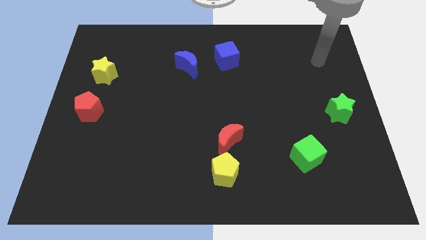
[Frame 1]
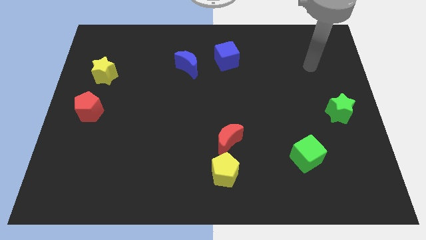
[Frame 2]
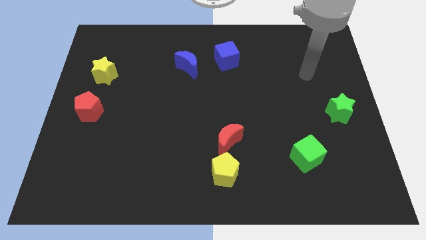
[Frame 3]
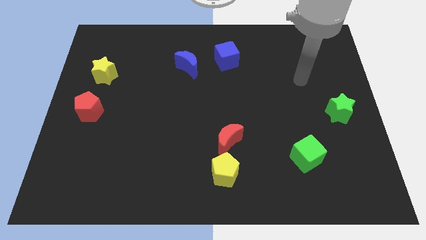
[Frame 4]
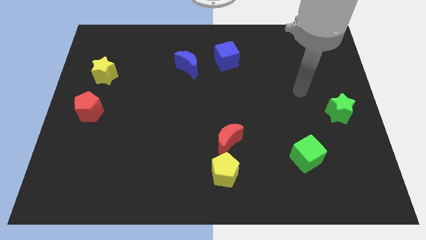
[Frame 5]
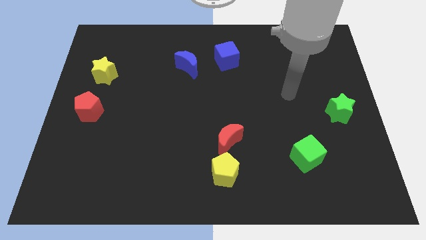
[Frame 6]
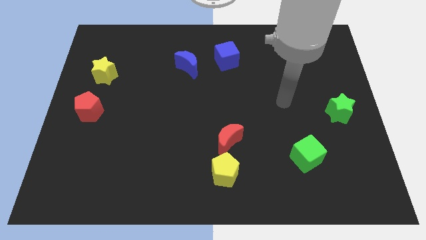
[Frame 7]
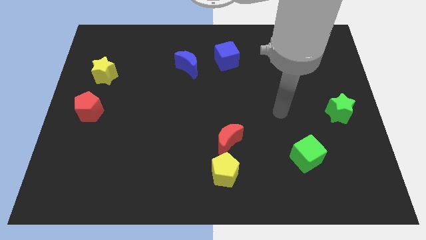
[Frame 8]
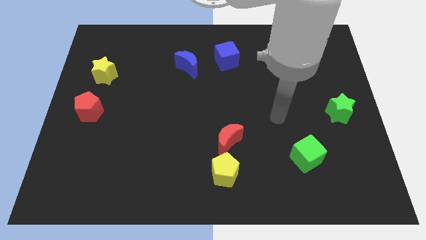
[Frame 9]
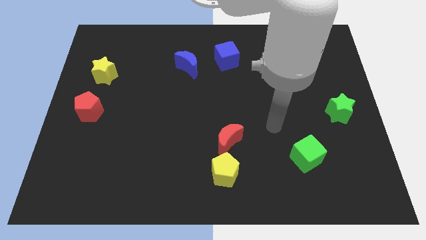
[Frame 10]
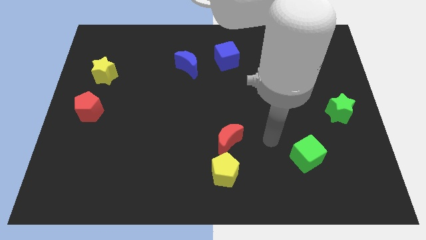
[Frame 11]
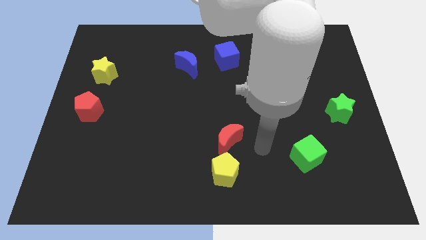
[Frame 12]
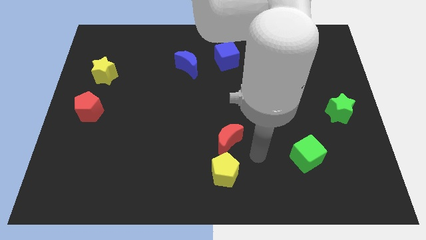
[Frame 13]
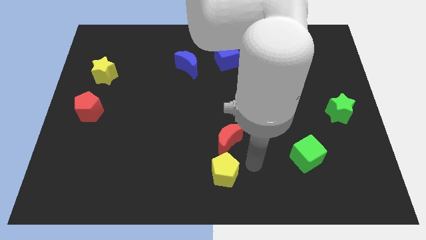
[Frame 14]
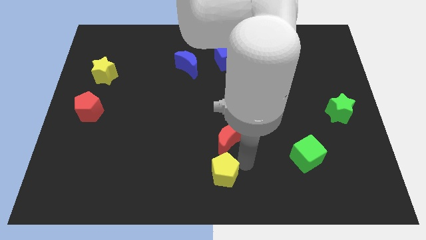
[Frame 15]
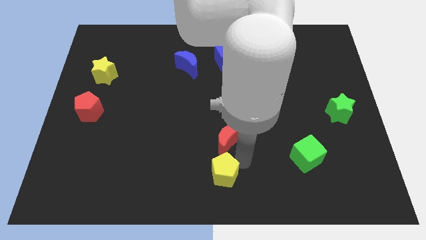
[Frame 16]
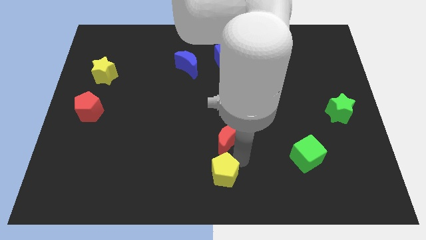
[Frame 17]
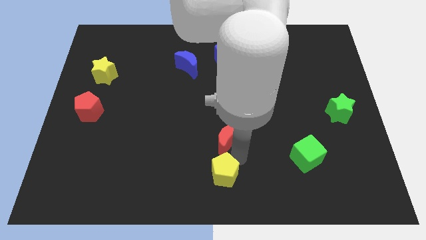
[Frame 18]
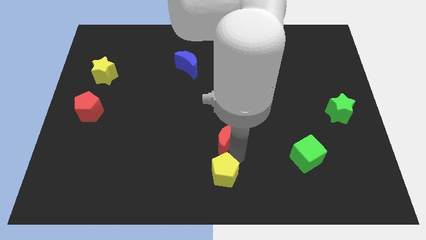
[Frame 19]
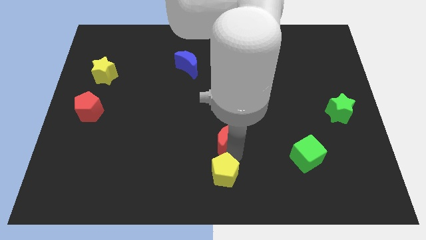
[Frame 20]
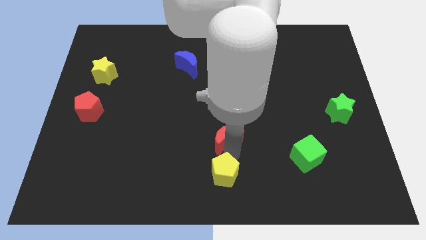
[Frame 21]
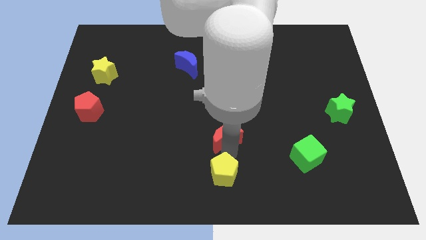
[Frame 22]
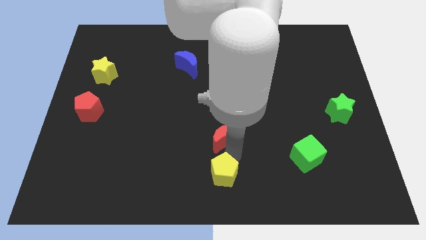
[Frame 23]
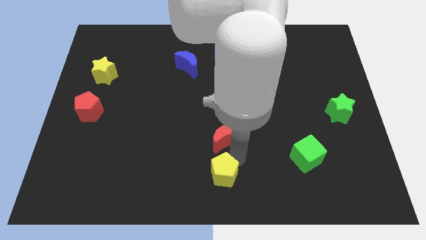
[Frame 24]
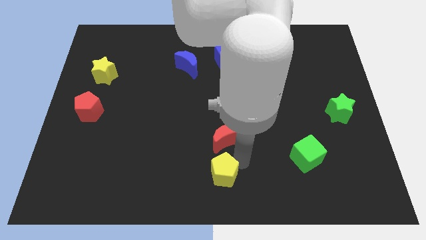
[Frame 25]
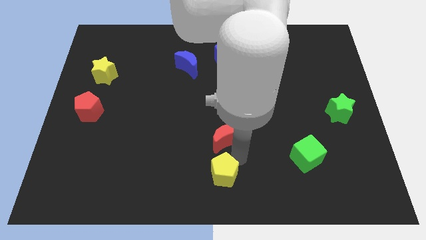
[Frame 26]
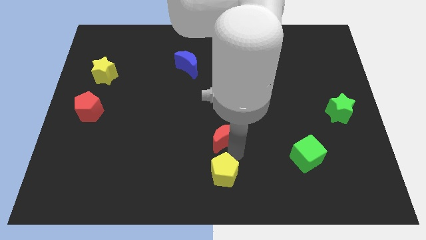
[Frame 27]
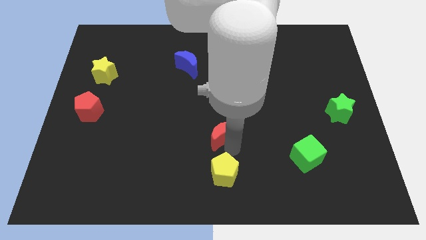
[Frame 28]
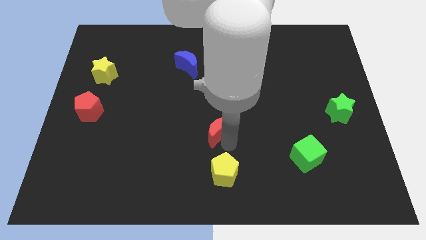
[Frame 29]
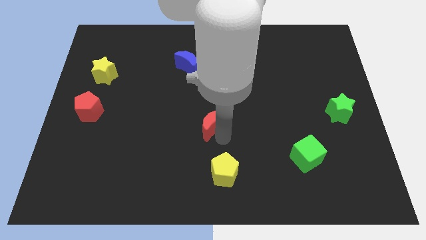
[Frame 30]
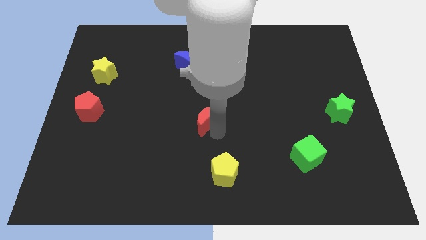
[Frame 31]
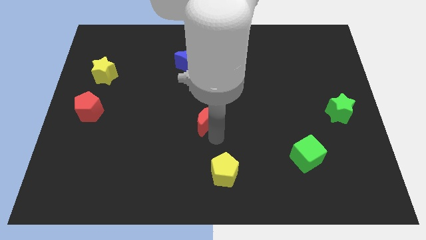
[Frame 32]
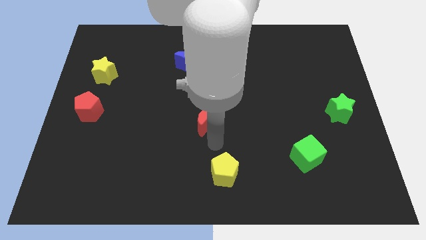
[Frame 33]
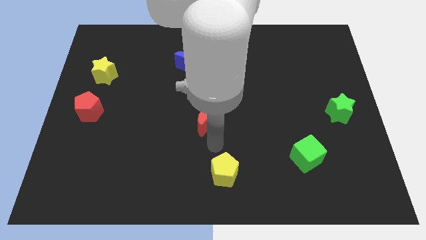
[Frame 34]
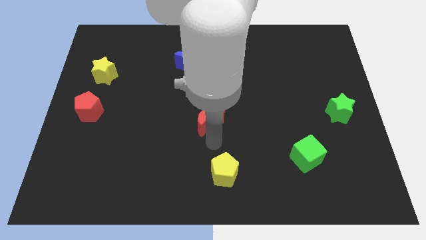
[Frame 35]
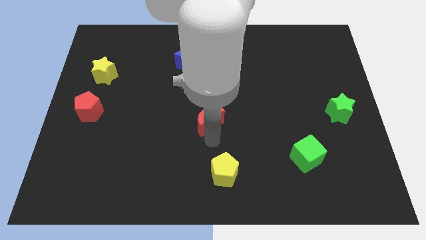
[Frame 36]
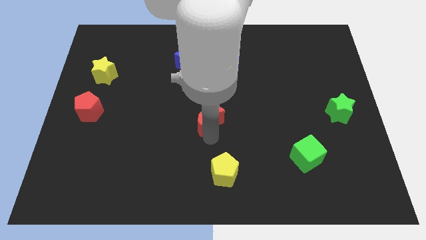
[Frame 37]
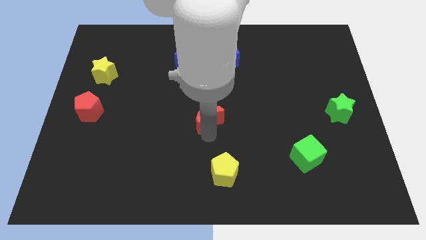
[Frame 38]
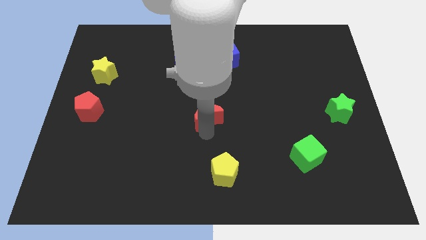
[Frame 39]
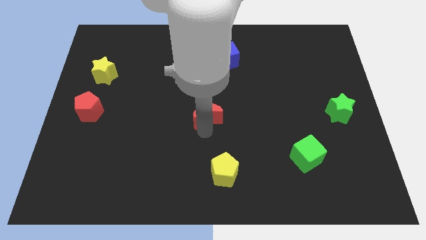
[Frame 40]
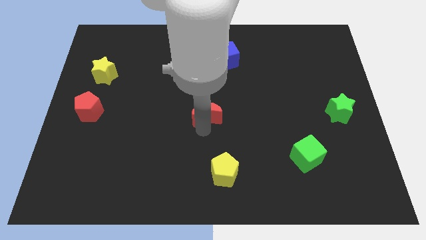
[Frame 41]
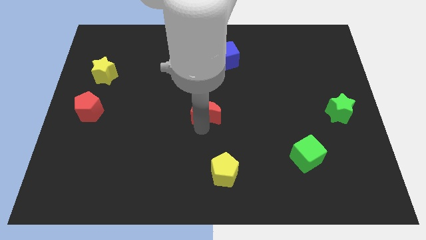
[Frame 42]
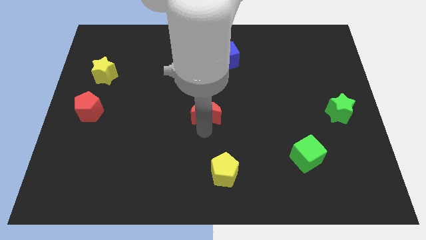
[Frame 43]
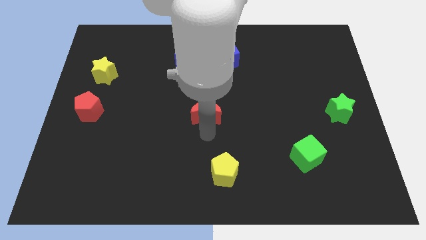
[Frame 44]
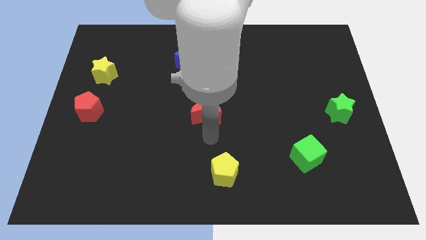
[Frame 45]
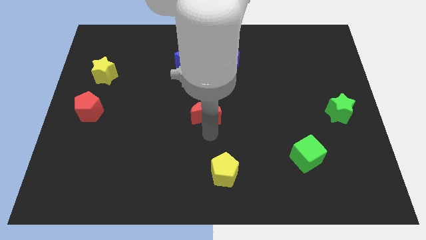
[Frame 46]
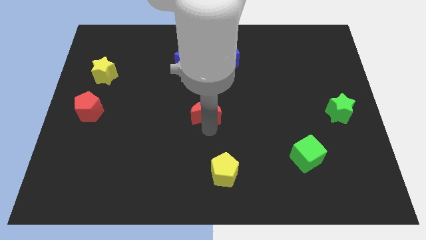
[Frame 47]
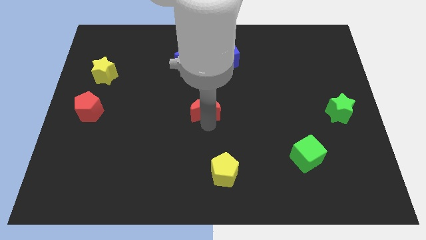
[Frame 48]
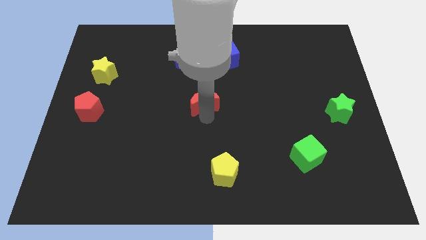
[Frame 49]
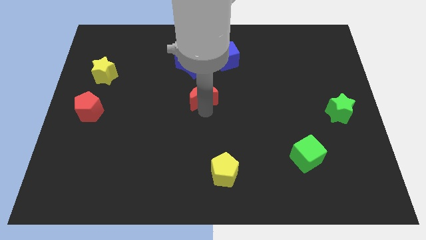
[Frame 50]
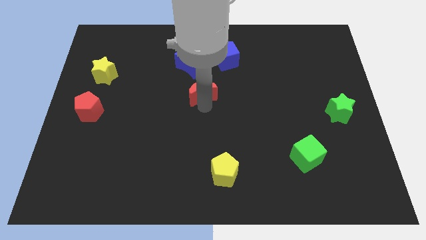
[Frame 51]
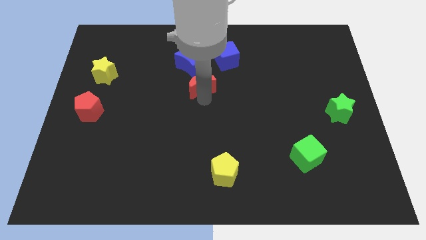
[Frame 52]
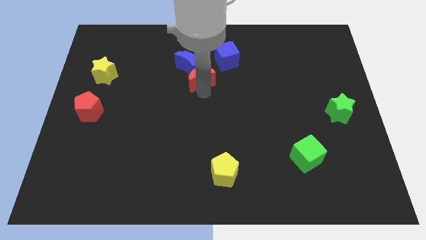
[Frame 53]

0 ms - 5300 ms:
move the red moon towards the blue moon

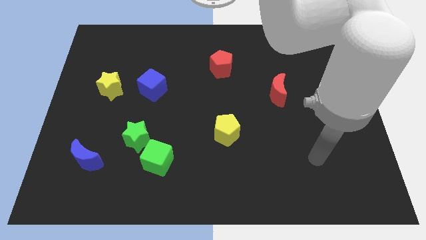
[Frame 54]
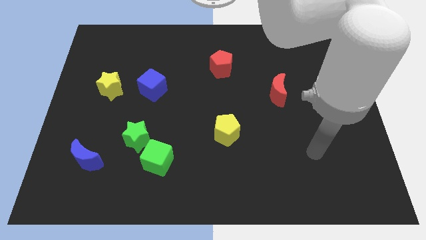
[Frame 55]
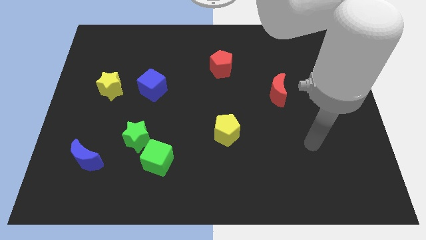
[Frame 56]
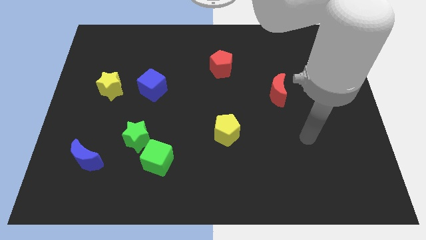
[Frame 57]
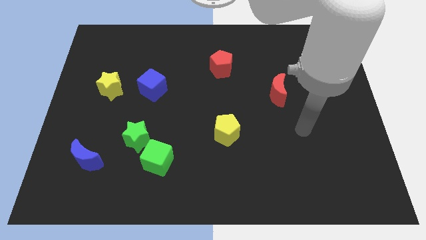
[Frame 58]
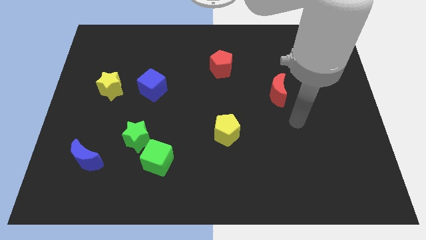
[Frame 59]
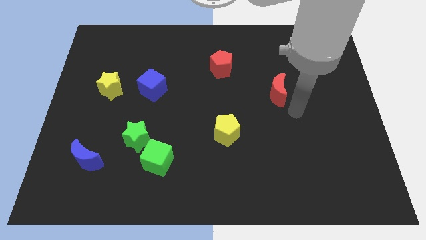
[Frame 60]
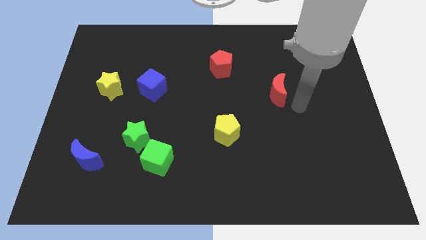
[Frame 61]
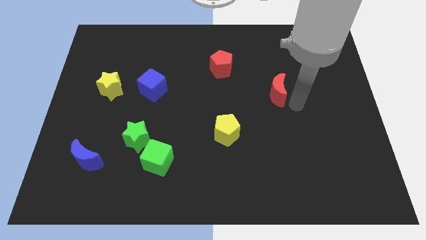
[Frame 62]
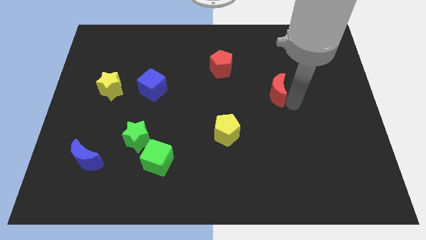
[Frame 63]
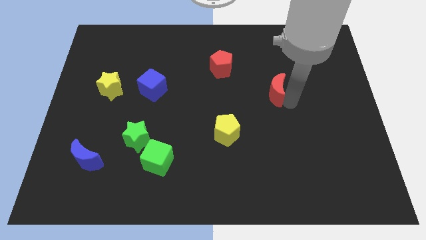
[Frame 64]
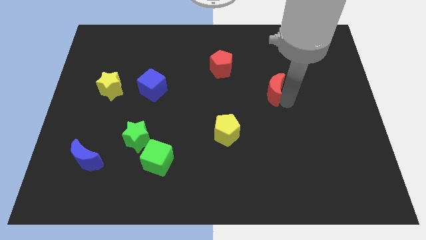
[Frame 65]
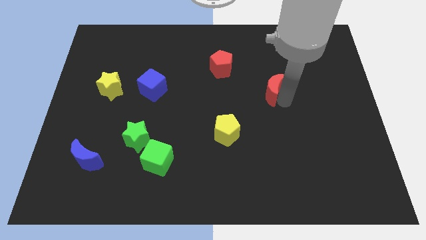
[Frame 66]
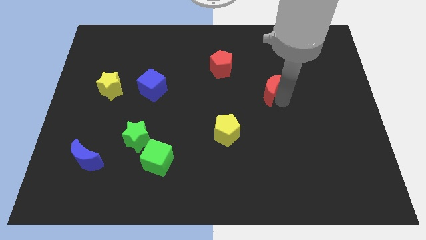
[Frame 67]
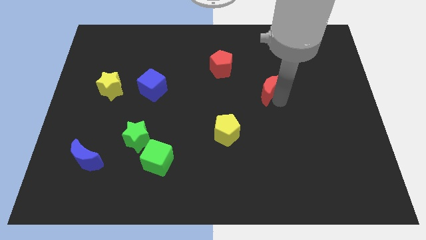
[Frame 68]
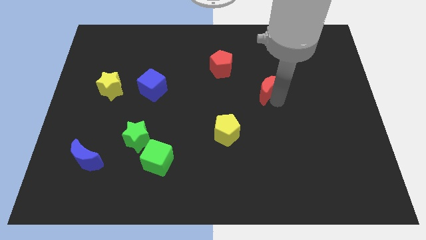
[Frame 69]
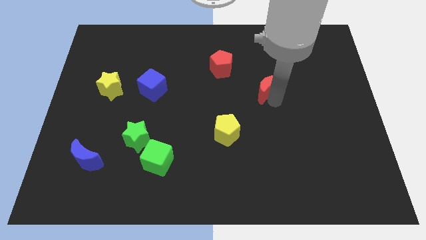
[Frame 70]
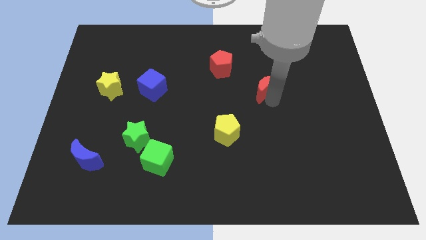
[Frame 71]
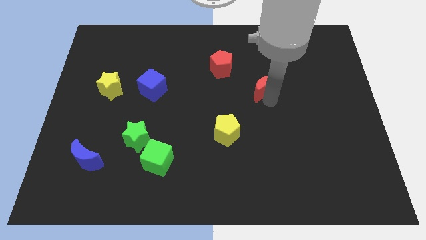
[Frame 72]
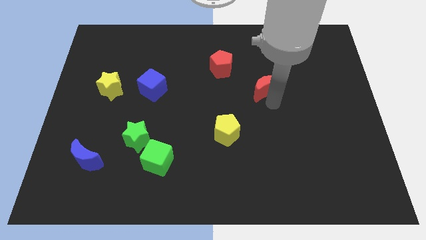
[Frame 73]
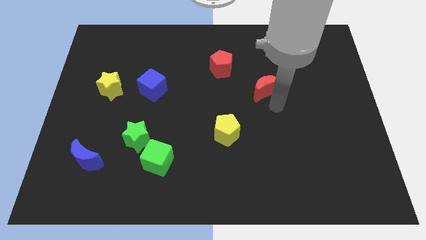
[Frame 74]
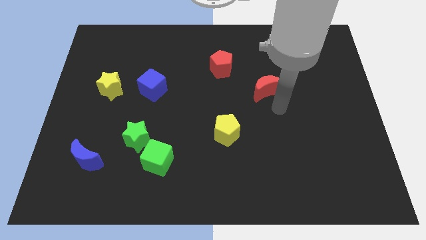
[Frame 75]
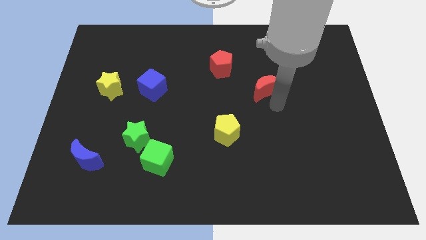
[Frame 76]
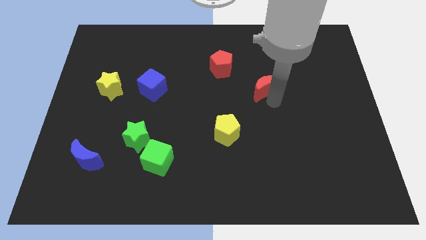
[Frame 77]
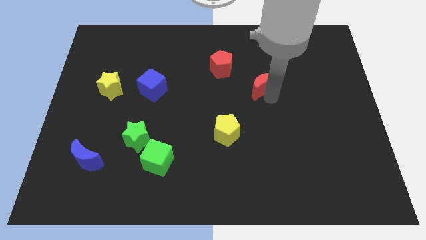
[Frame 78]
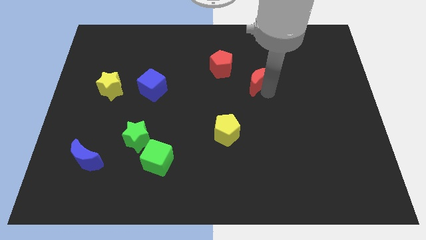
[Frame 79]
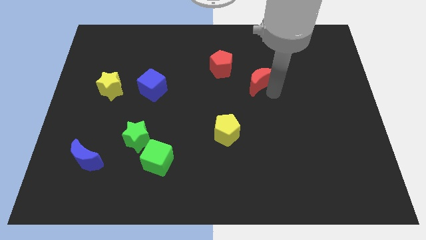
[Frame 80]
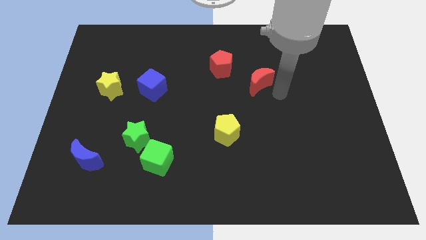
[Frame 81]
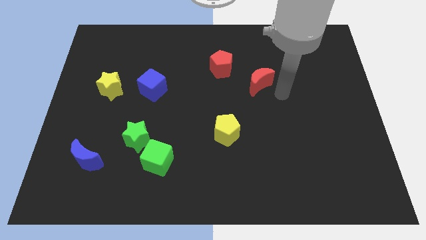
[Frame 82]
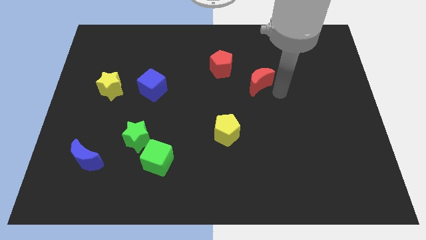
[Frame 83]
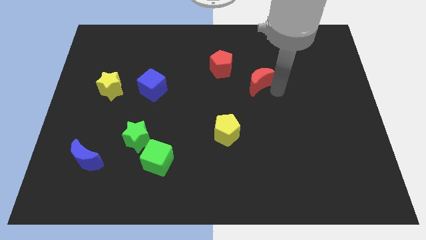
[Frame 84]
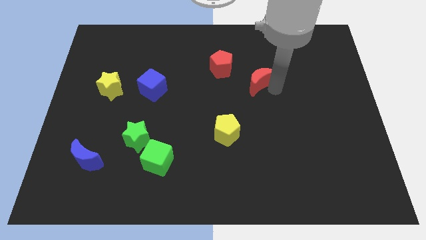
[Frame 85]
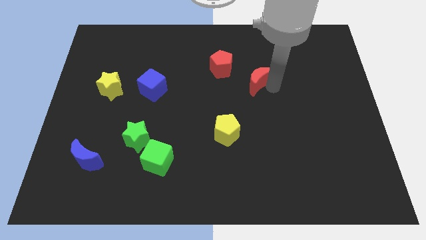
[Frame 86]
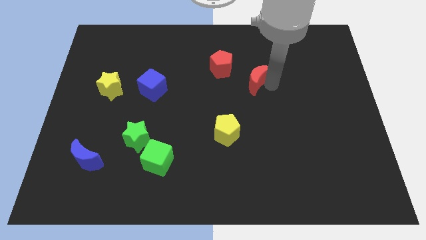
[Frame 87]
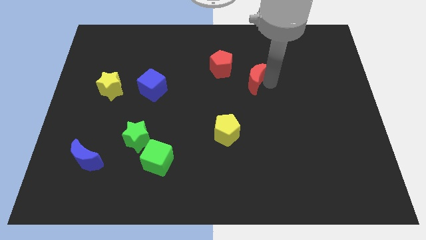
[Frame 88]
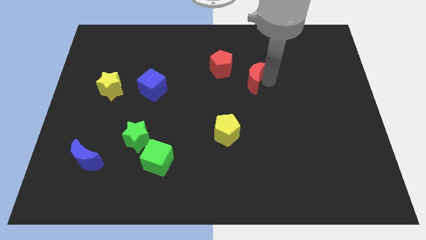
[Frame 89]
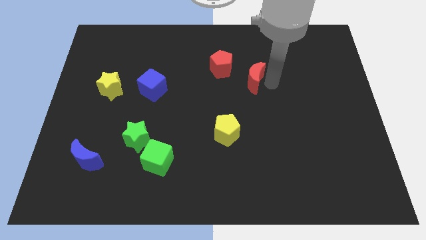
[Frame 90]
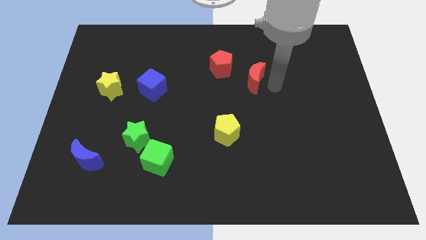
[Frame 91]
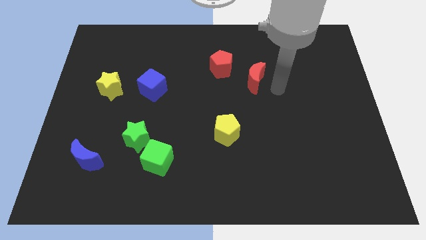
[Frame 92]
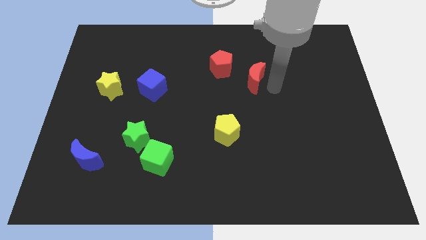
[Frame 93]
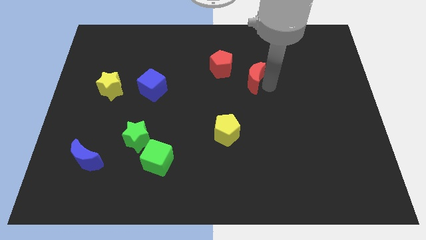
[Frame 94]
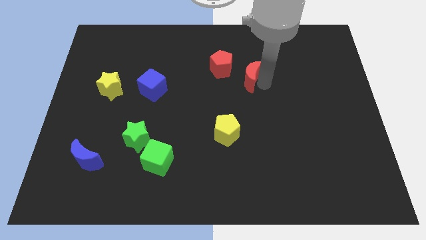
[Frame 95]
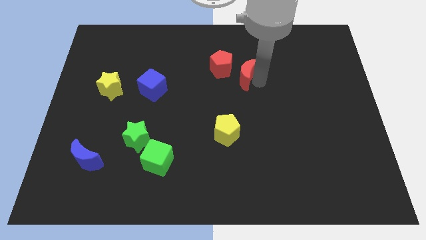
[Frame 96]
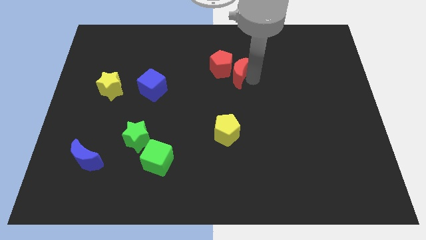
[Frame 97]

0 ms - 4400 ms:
push the red moon close to the red pentagon
